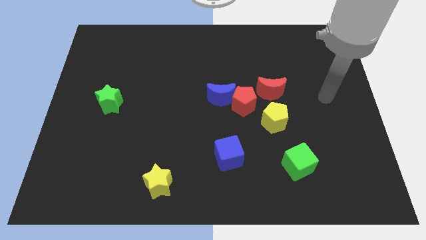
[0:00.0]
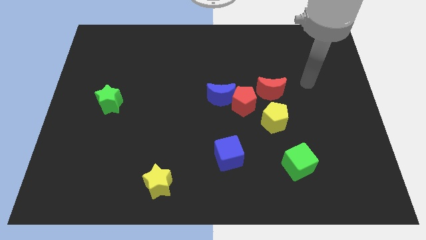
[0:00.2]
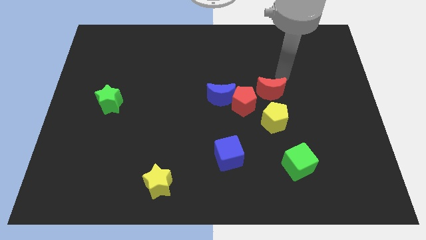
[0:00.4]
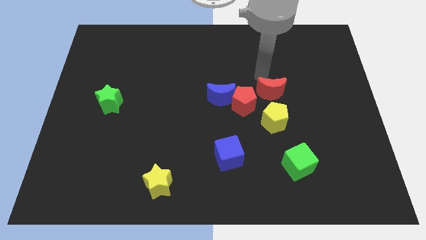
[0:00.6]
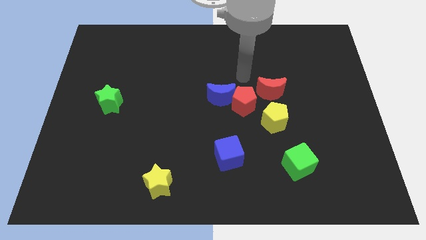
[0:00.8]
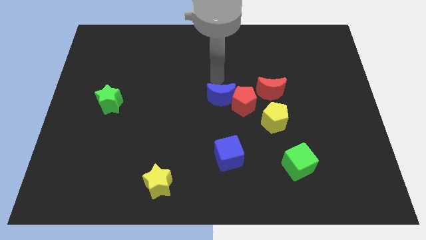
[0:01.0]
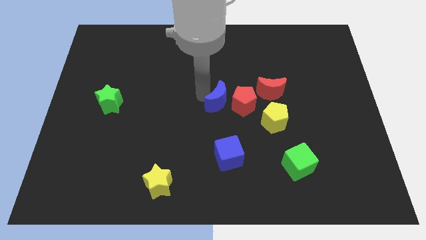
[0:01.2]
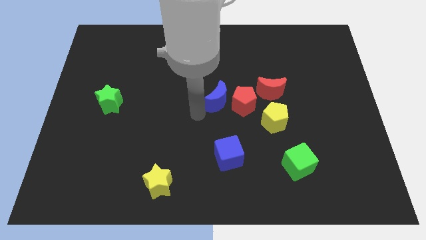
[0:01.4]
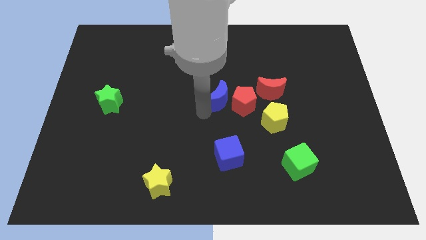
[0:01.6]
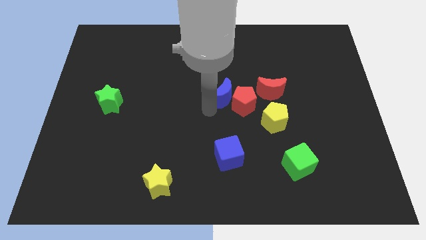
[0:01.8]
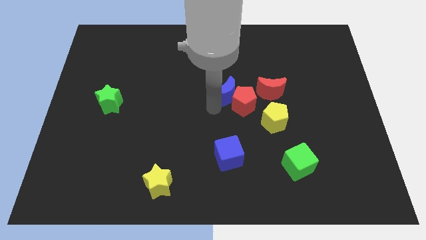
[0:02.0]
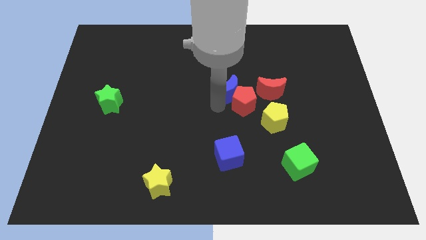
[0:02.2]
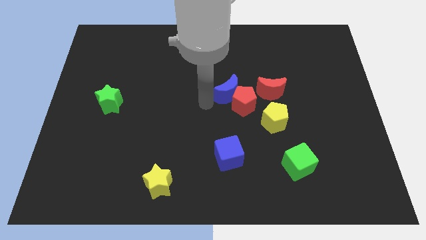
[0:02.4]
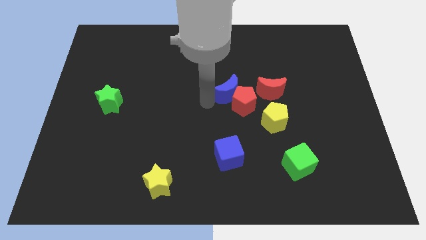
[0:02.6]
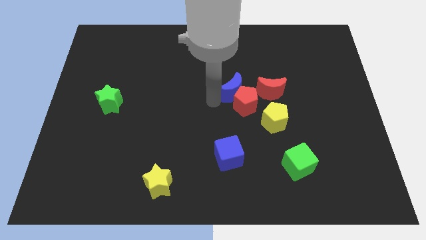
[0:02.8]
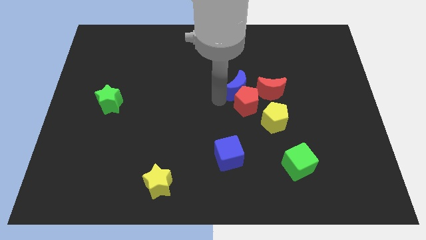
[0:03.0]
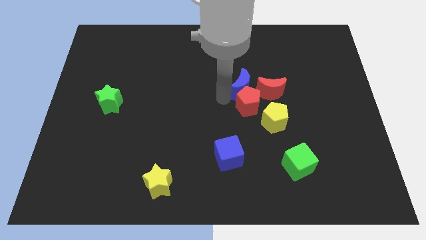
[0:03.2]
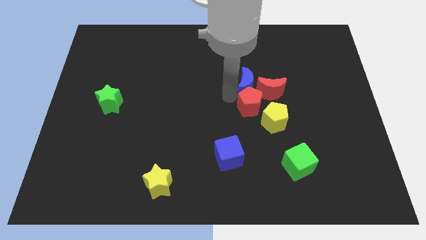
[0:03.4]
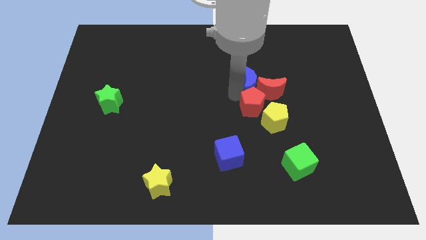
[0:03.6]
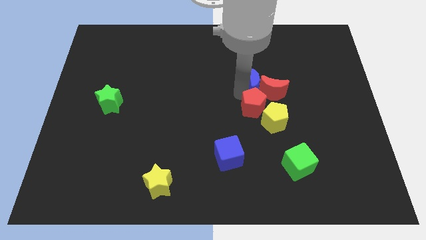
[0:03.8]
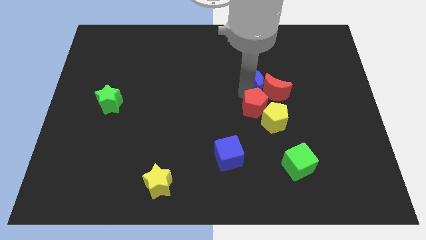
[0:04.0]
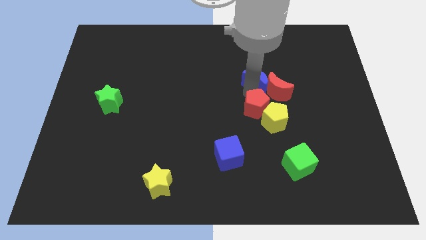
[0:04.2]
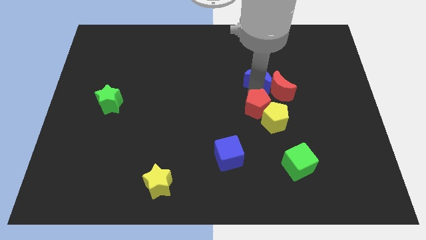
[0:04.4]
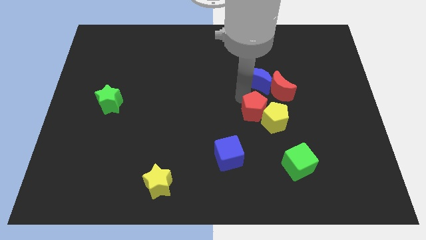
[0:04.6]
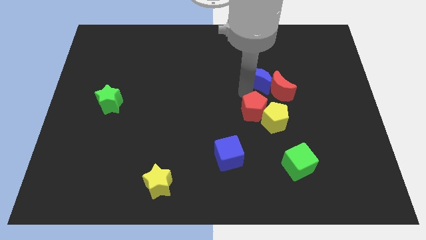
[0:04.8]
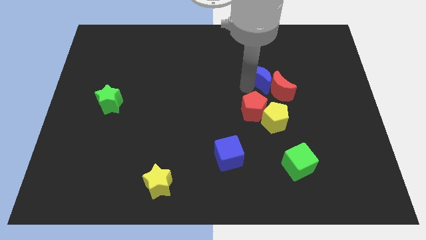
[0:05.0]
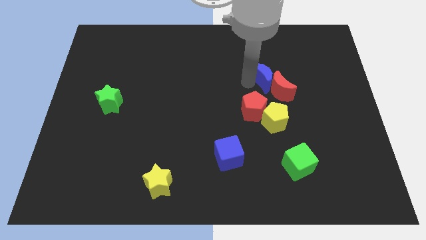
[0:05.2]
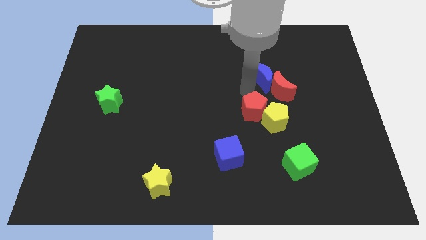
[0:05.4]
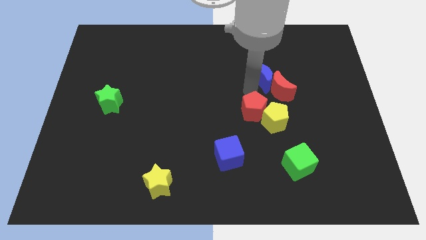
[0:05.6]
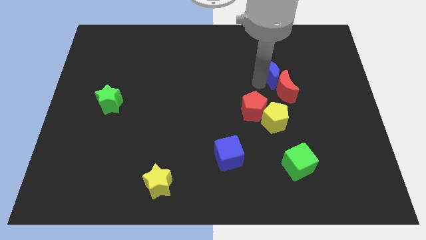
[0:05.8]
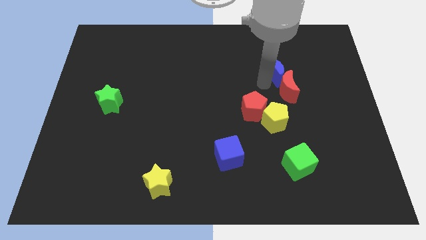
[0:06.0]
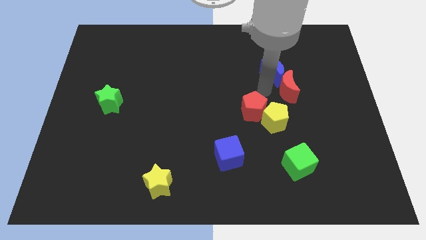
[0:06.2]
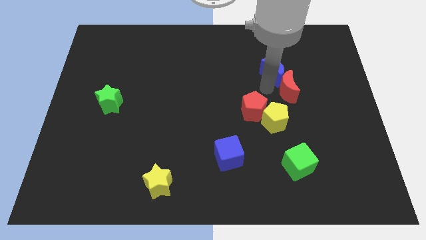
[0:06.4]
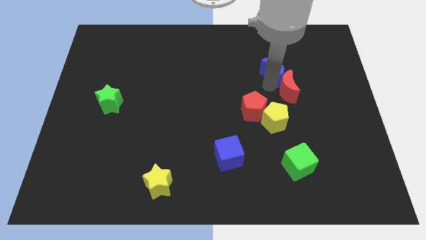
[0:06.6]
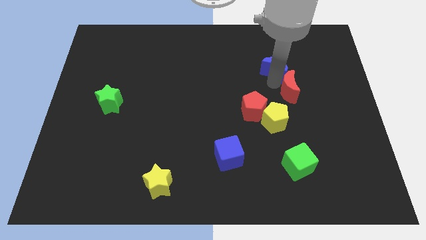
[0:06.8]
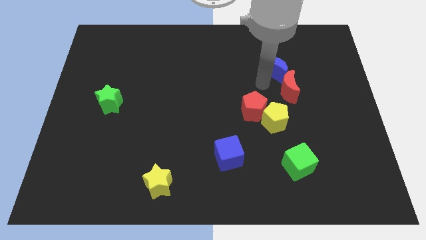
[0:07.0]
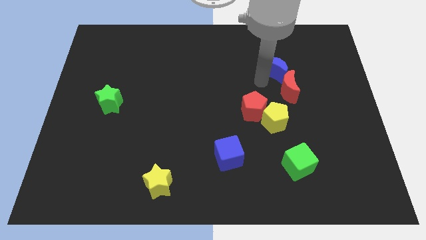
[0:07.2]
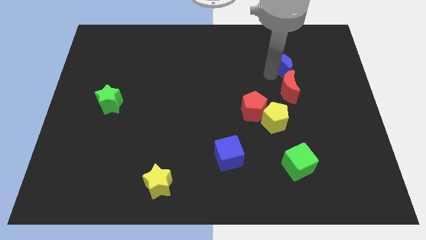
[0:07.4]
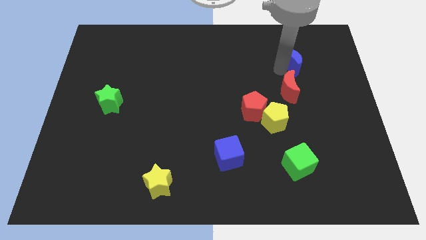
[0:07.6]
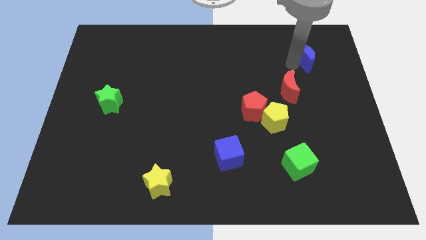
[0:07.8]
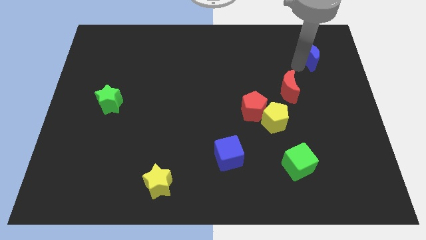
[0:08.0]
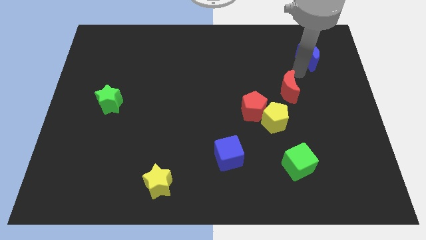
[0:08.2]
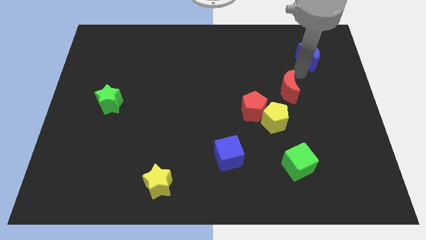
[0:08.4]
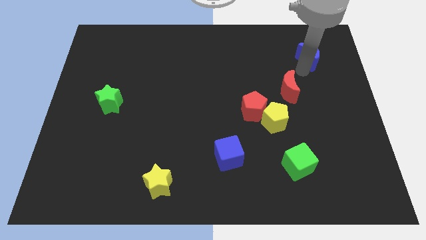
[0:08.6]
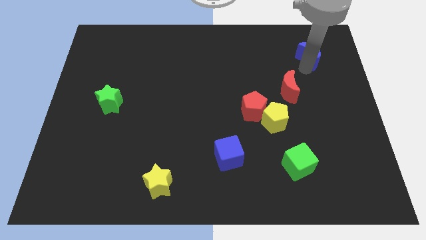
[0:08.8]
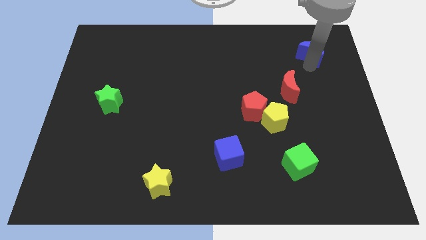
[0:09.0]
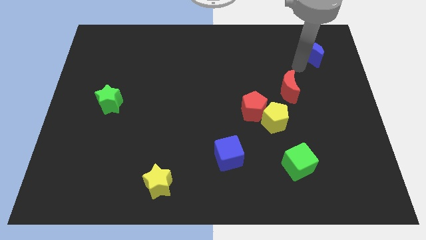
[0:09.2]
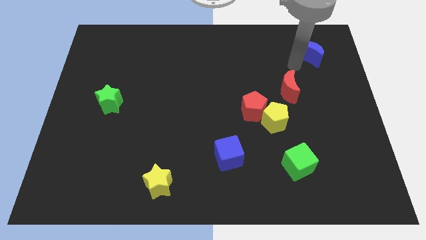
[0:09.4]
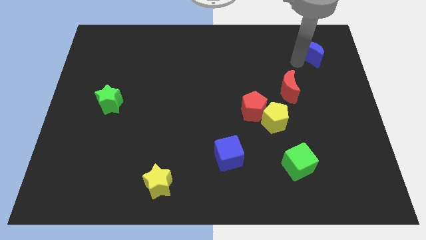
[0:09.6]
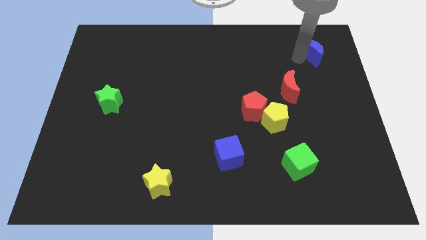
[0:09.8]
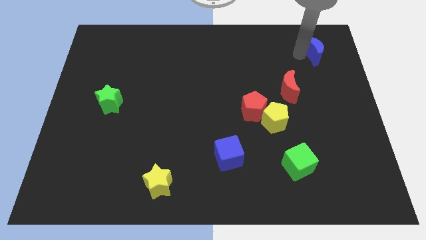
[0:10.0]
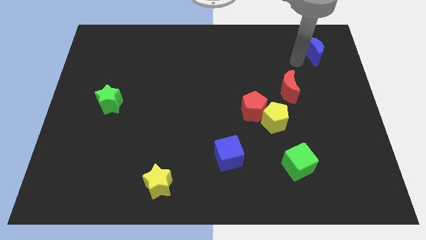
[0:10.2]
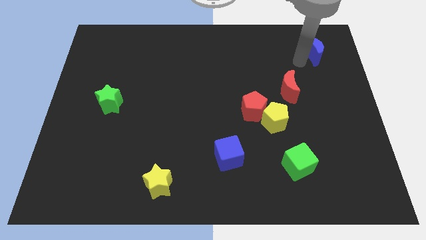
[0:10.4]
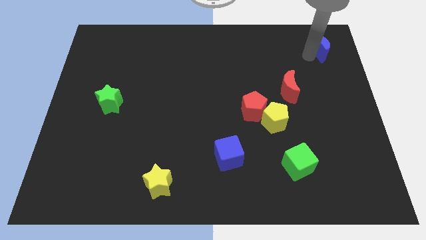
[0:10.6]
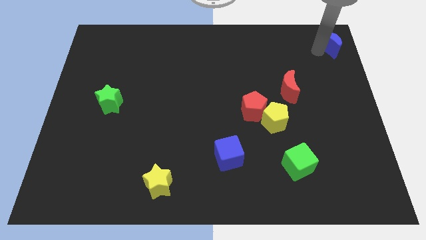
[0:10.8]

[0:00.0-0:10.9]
put the blue moon to the top right of the board

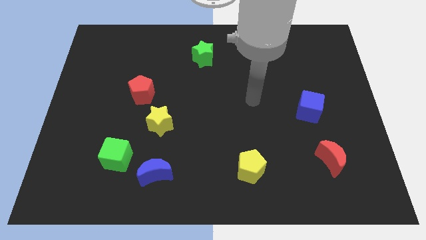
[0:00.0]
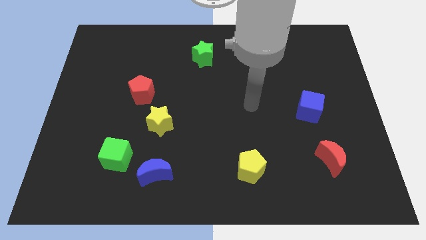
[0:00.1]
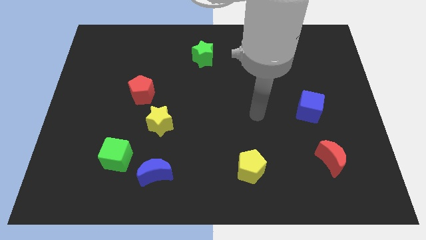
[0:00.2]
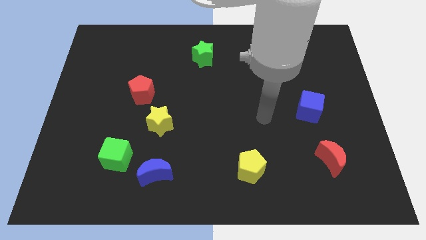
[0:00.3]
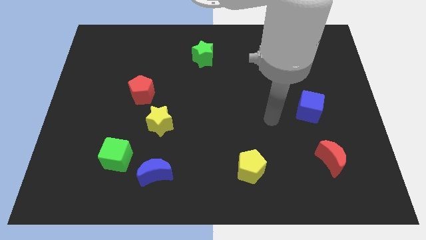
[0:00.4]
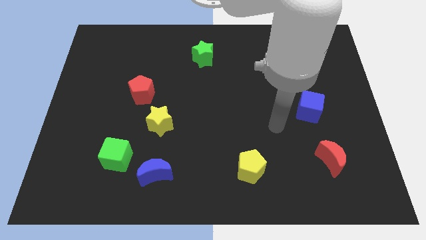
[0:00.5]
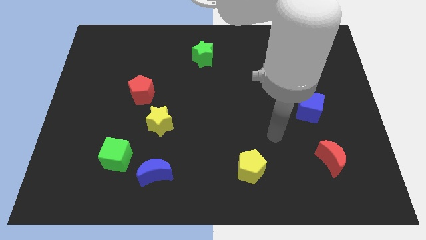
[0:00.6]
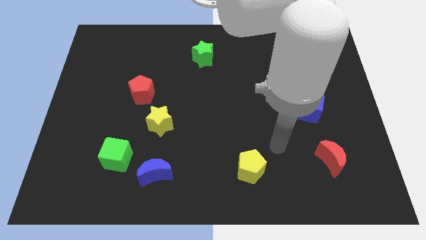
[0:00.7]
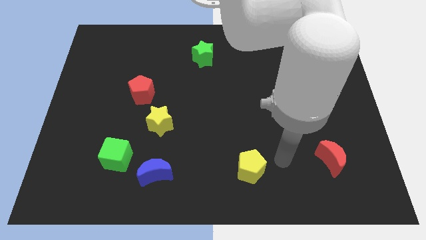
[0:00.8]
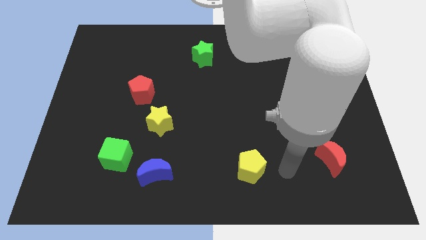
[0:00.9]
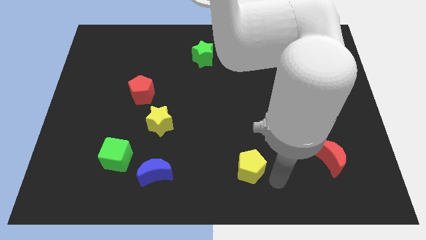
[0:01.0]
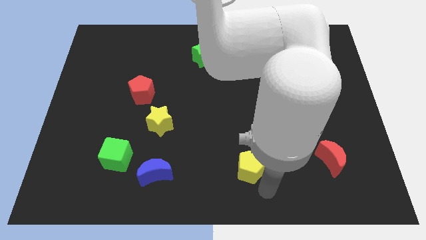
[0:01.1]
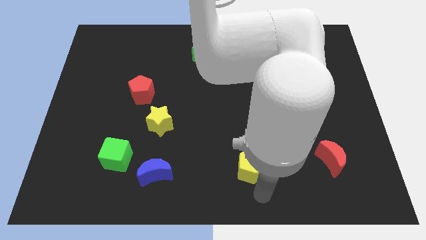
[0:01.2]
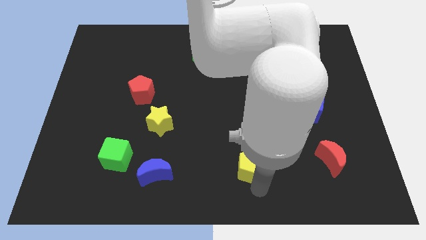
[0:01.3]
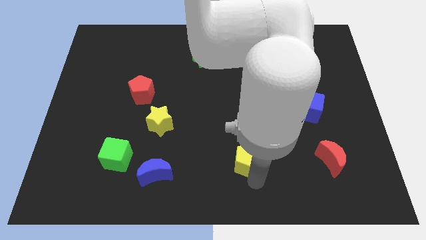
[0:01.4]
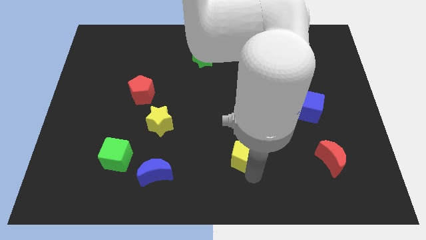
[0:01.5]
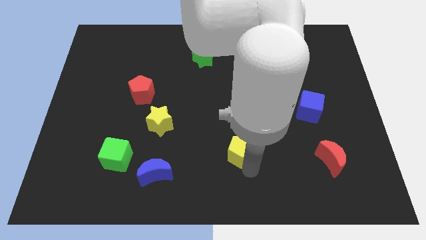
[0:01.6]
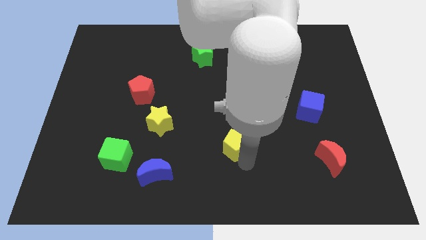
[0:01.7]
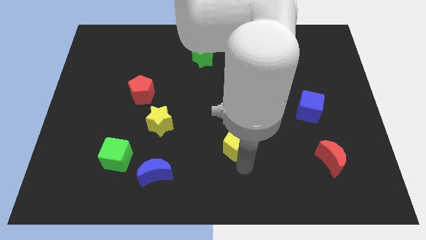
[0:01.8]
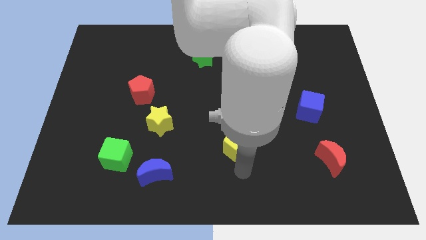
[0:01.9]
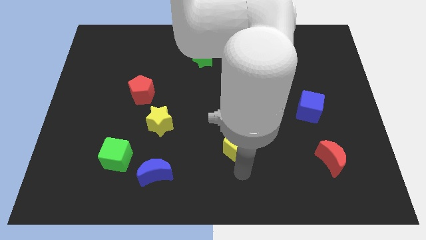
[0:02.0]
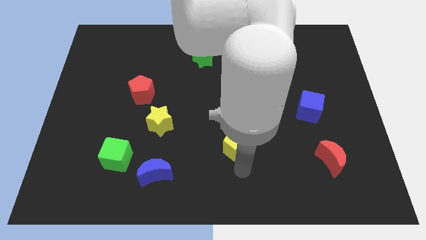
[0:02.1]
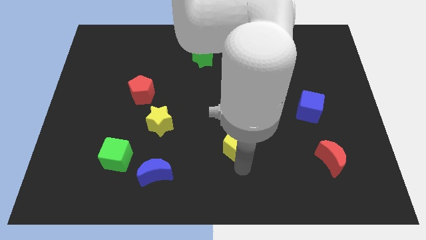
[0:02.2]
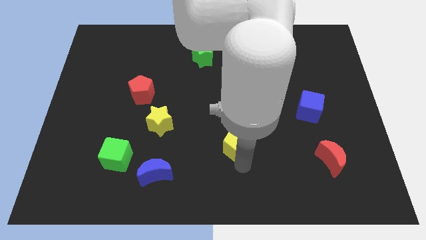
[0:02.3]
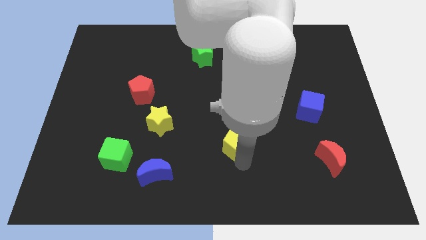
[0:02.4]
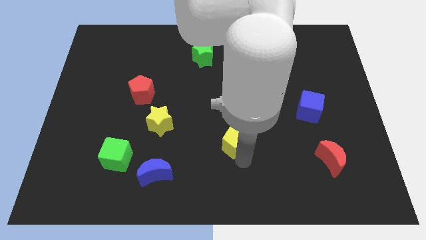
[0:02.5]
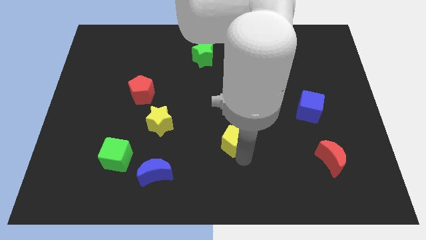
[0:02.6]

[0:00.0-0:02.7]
put the yellow pentagon to the middle of the board
